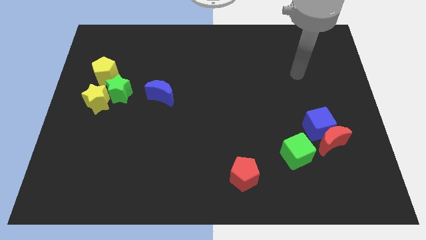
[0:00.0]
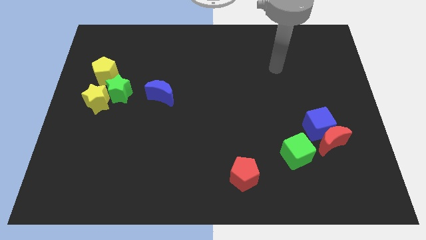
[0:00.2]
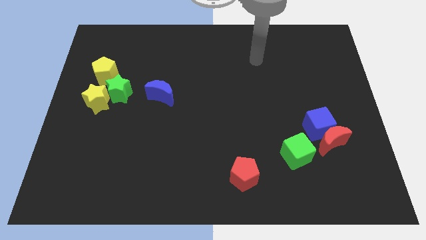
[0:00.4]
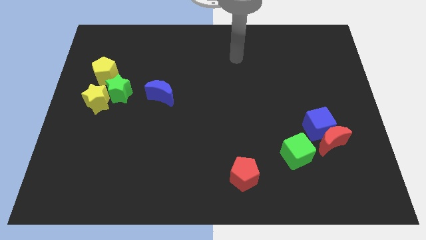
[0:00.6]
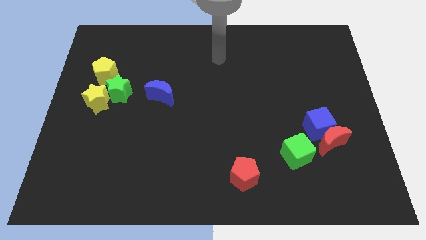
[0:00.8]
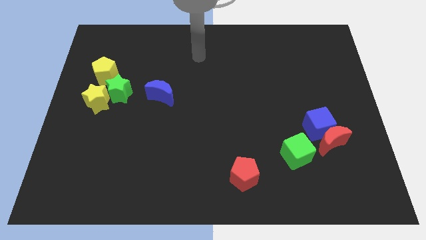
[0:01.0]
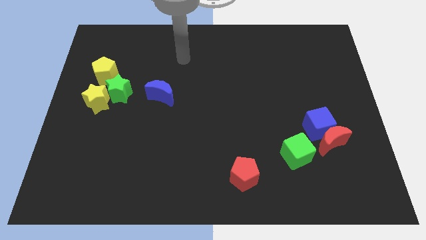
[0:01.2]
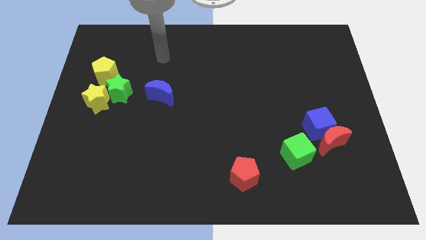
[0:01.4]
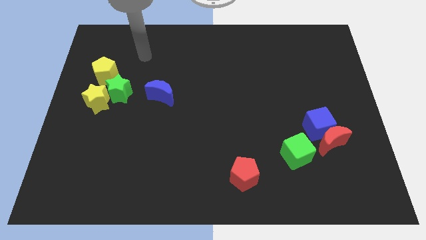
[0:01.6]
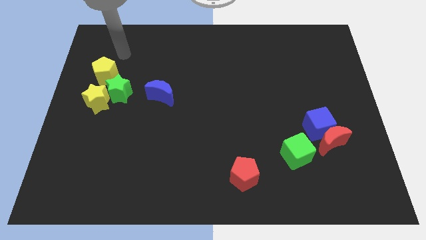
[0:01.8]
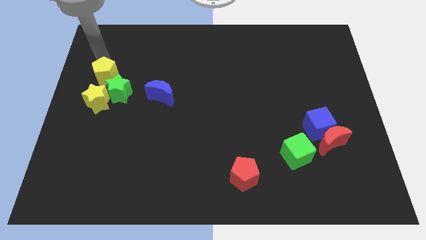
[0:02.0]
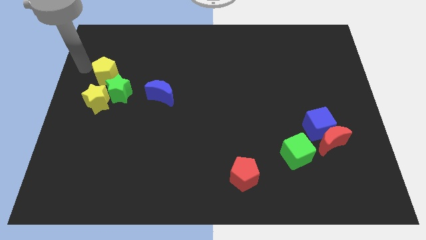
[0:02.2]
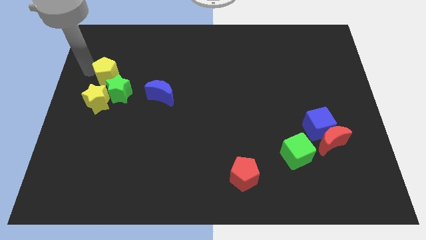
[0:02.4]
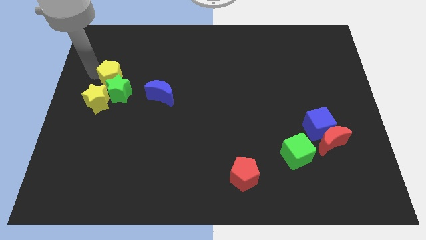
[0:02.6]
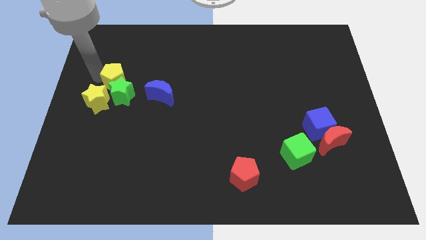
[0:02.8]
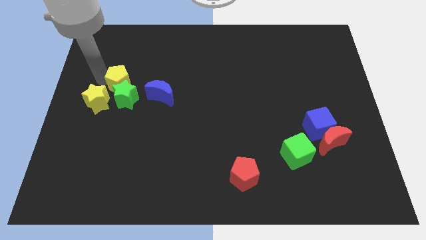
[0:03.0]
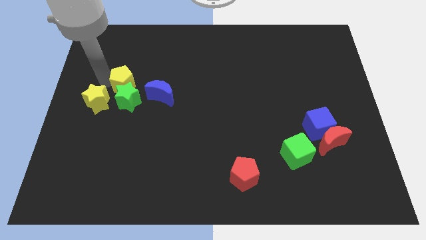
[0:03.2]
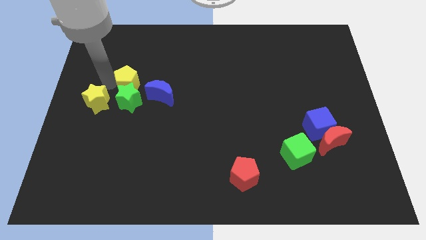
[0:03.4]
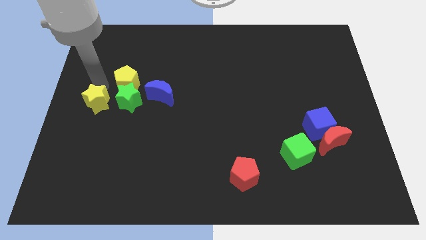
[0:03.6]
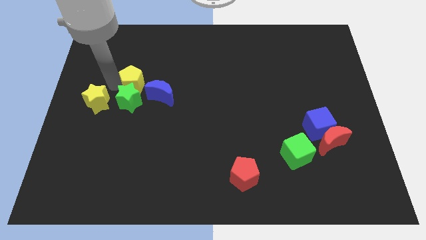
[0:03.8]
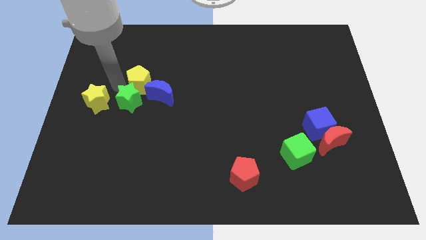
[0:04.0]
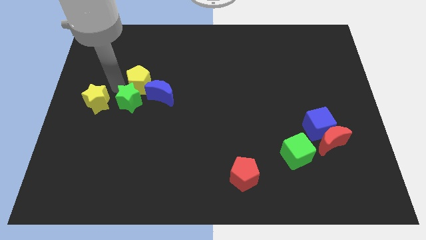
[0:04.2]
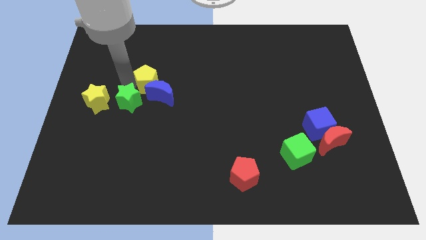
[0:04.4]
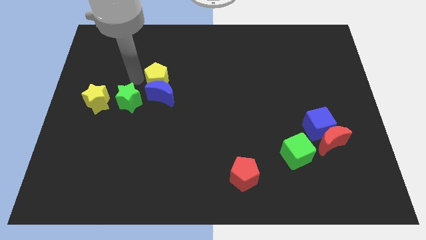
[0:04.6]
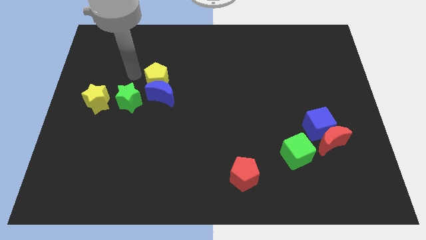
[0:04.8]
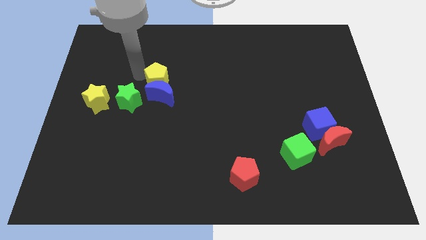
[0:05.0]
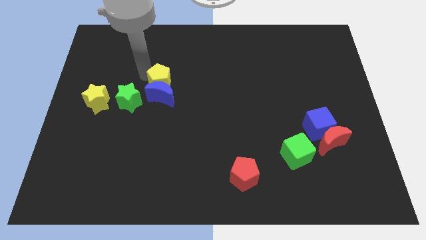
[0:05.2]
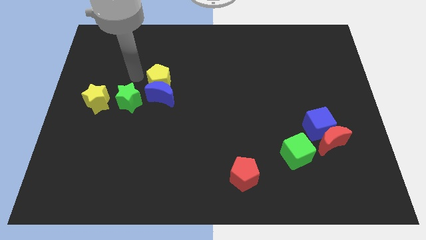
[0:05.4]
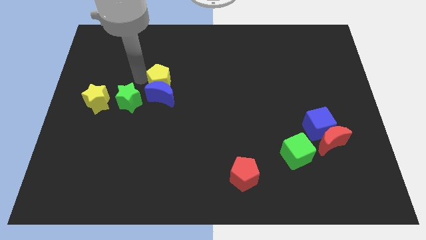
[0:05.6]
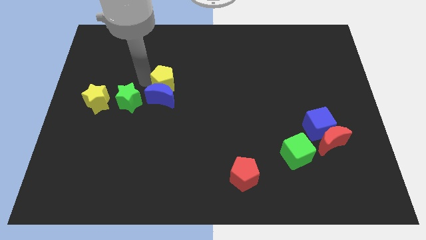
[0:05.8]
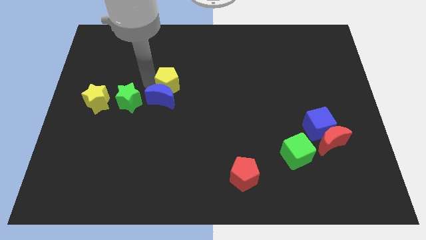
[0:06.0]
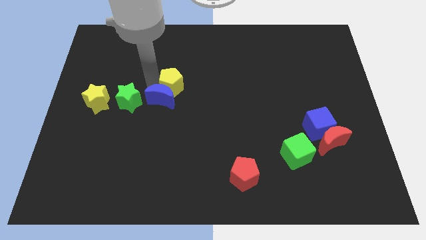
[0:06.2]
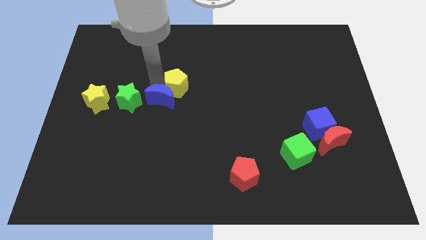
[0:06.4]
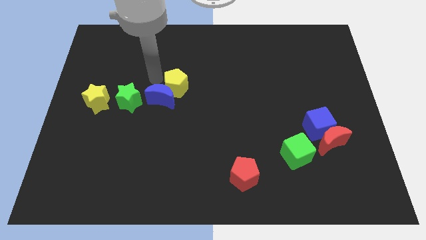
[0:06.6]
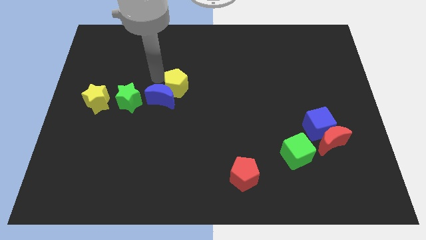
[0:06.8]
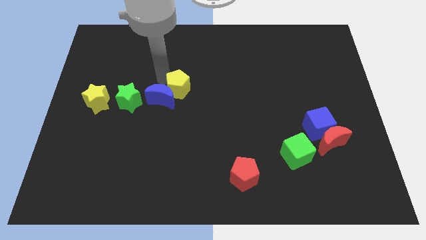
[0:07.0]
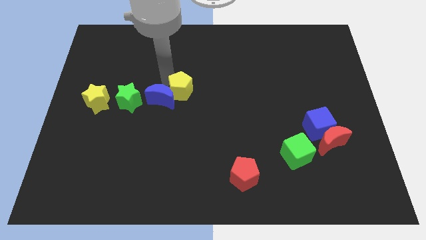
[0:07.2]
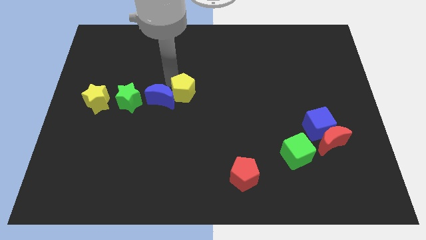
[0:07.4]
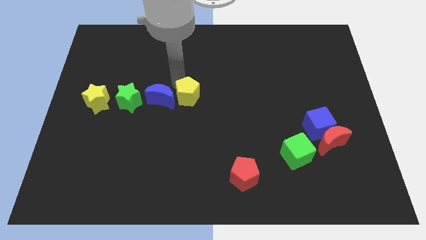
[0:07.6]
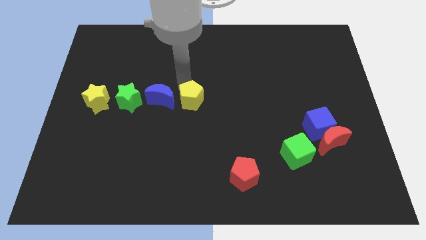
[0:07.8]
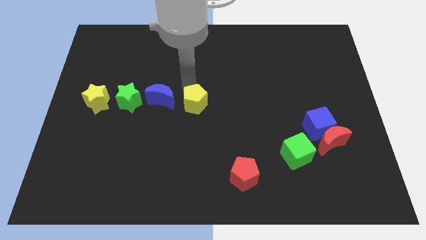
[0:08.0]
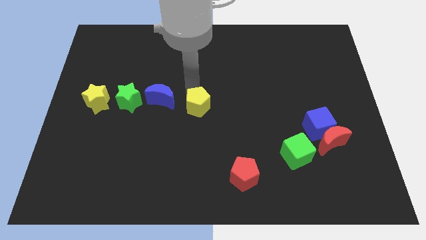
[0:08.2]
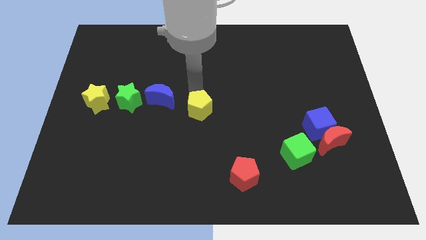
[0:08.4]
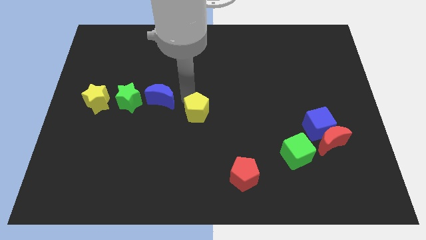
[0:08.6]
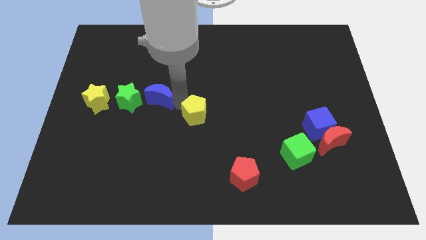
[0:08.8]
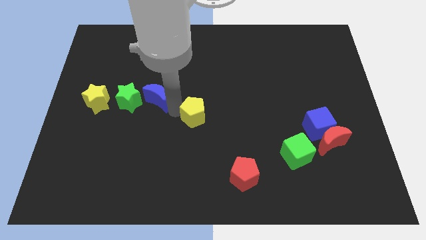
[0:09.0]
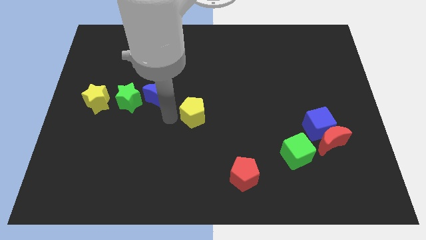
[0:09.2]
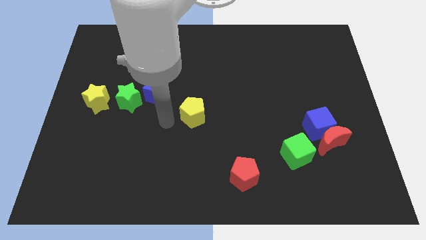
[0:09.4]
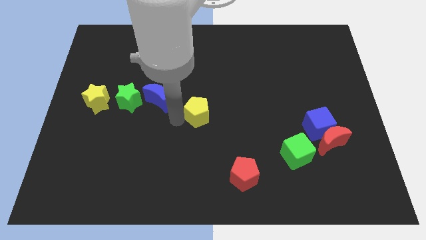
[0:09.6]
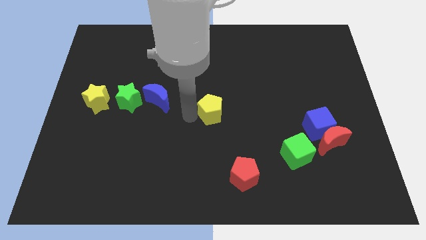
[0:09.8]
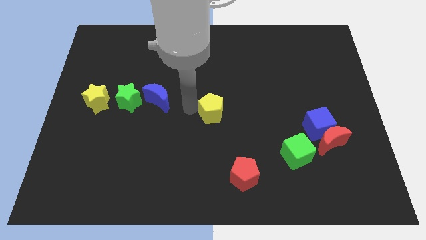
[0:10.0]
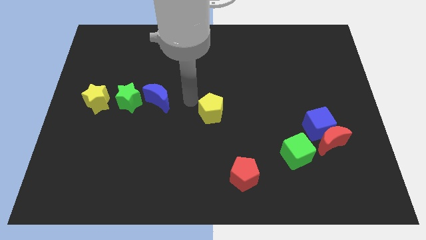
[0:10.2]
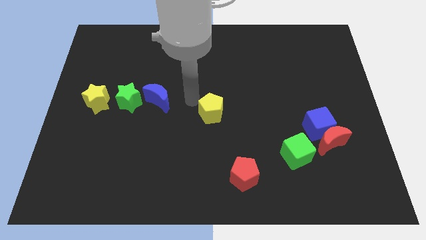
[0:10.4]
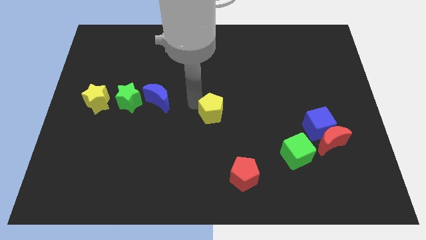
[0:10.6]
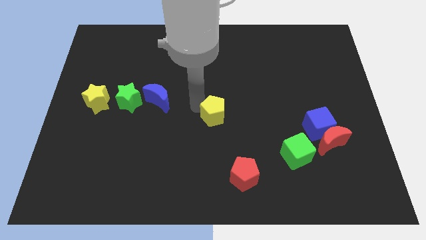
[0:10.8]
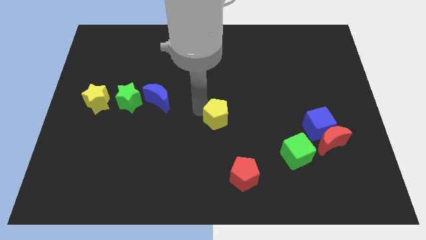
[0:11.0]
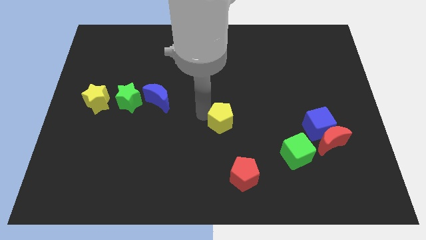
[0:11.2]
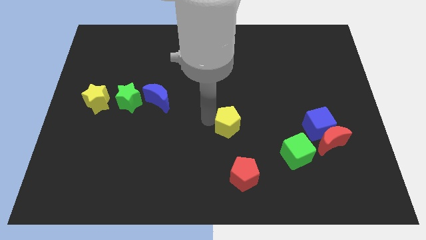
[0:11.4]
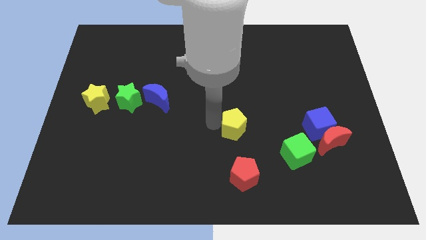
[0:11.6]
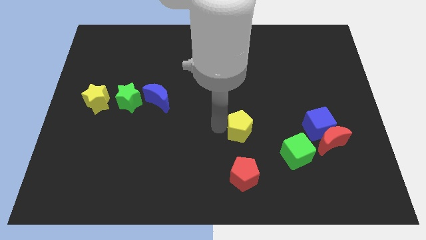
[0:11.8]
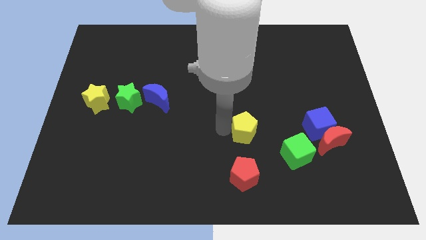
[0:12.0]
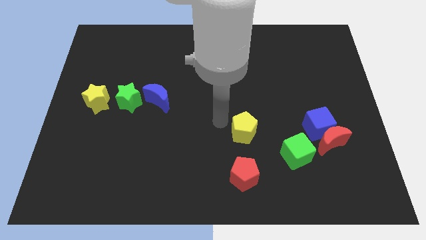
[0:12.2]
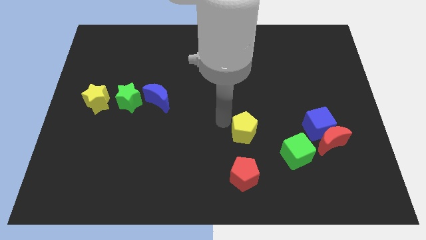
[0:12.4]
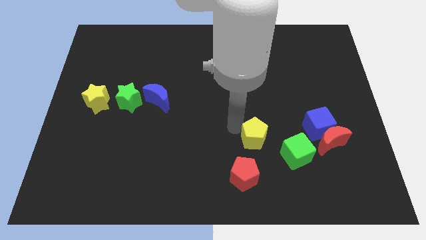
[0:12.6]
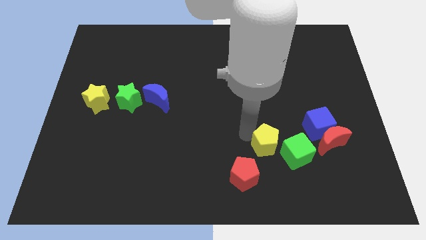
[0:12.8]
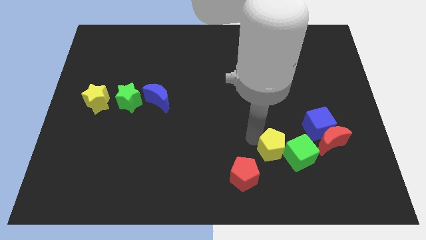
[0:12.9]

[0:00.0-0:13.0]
push the yellow pentagon to the green cube
